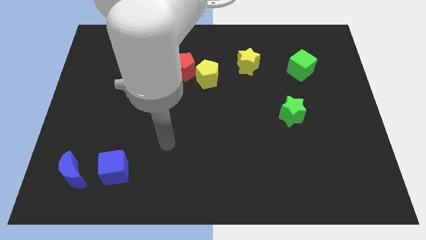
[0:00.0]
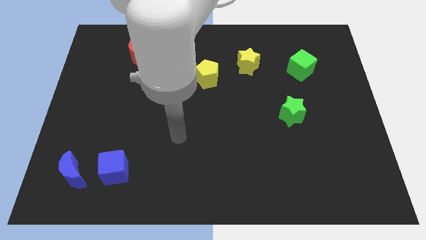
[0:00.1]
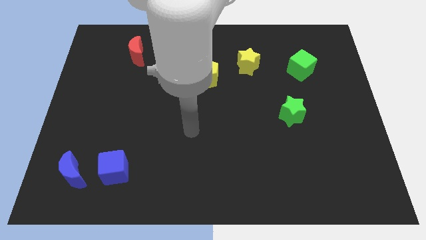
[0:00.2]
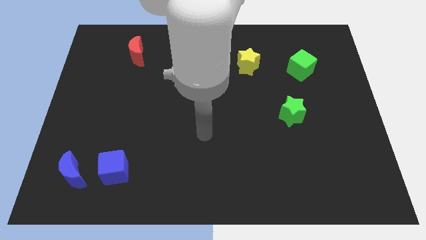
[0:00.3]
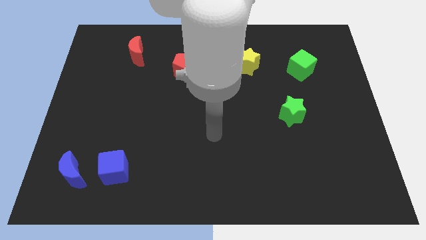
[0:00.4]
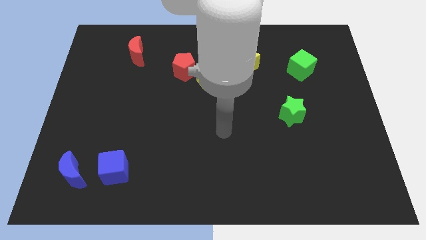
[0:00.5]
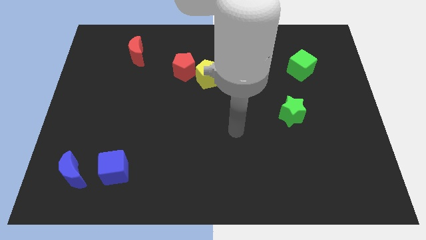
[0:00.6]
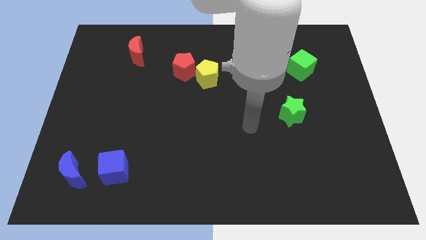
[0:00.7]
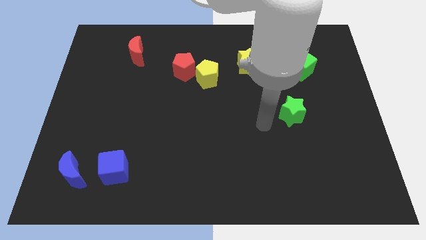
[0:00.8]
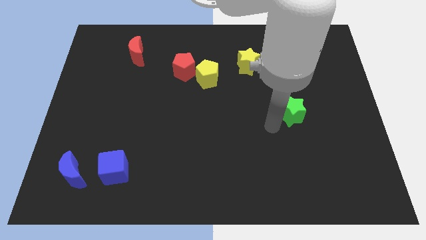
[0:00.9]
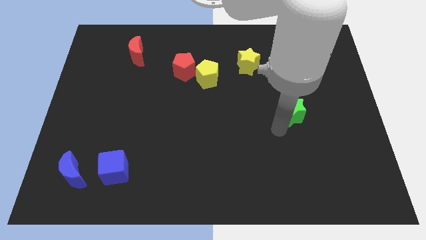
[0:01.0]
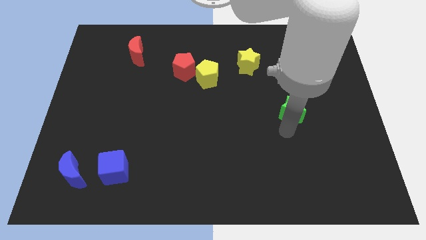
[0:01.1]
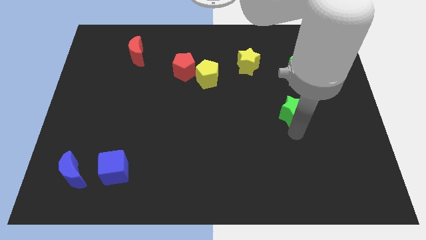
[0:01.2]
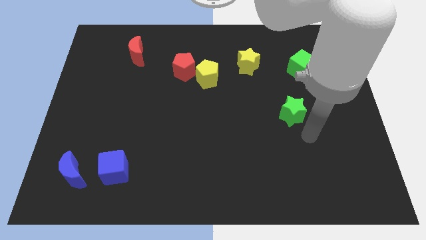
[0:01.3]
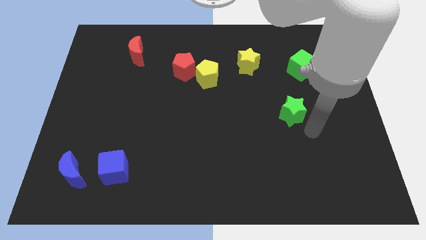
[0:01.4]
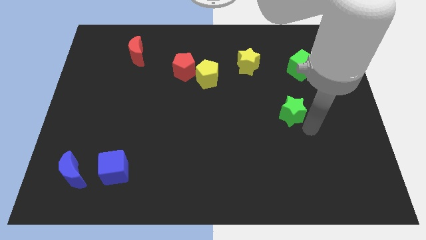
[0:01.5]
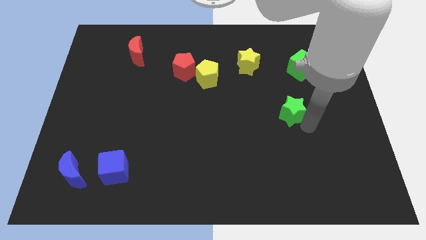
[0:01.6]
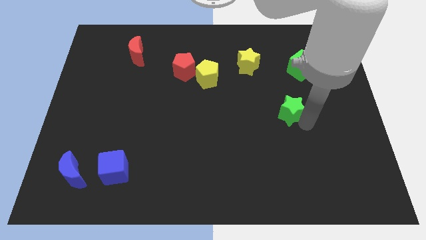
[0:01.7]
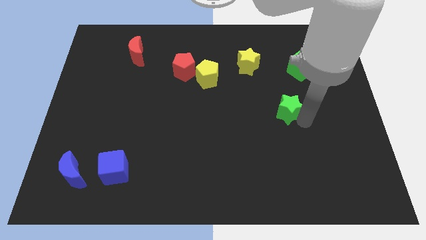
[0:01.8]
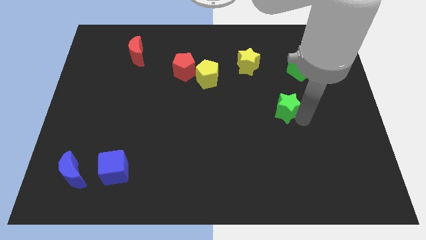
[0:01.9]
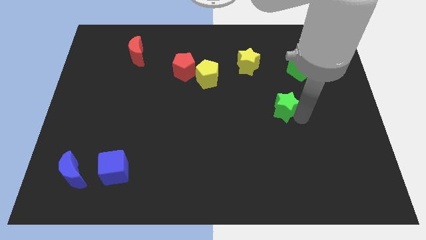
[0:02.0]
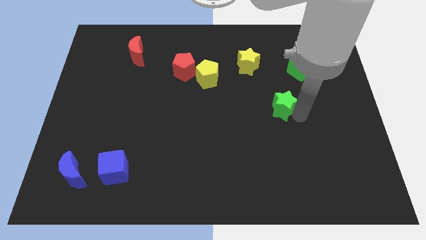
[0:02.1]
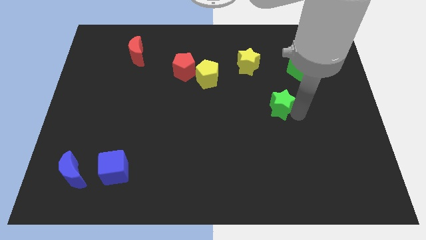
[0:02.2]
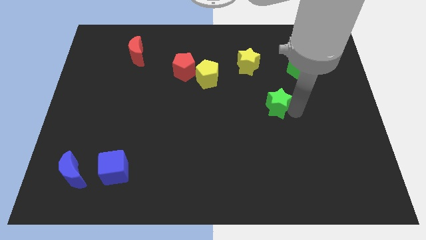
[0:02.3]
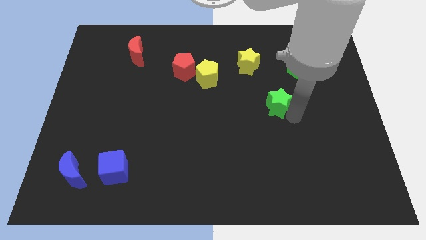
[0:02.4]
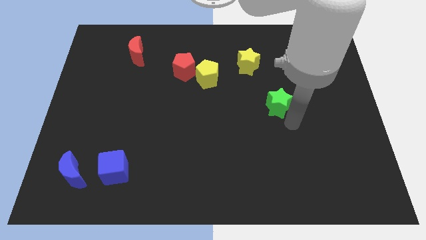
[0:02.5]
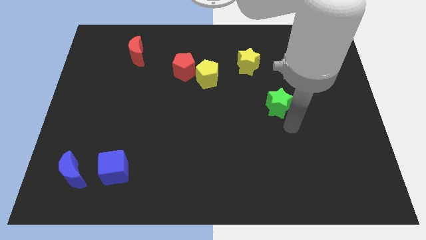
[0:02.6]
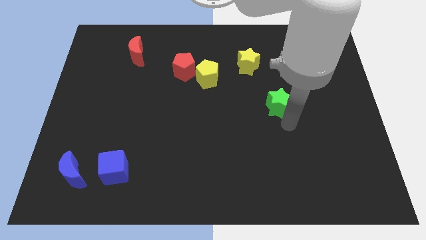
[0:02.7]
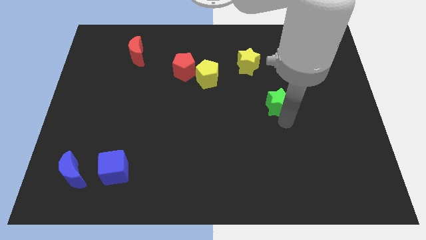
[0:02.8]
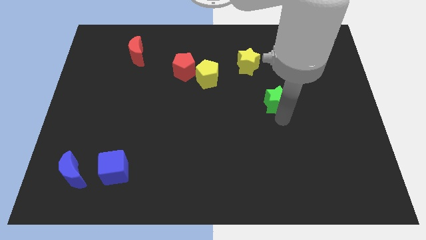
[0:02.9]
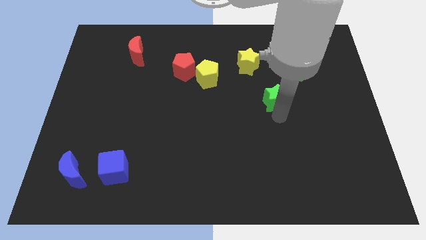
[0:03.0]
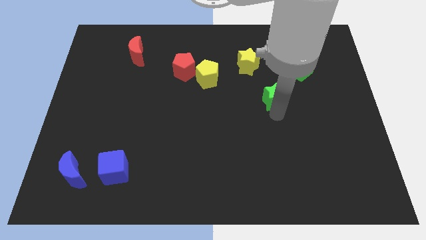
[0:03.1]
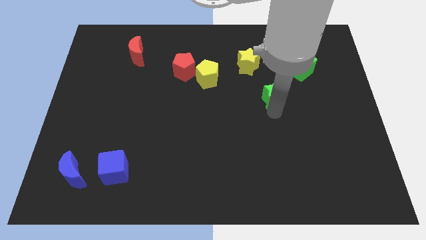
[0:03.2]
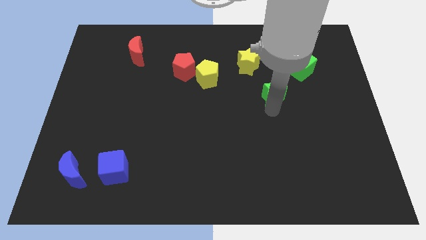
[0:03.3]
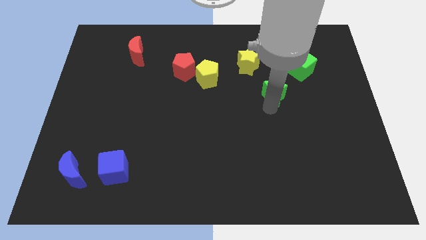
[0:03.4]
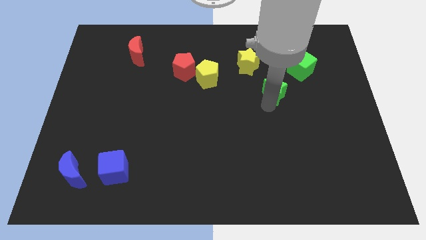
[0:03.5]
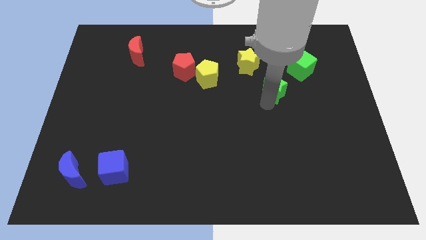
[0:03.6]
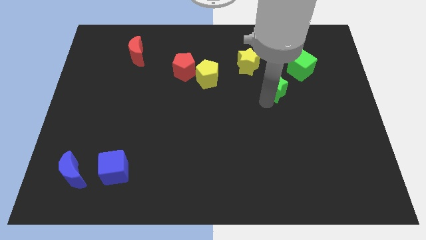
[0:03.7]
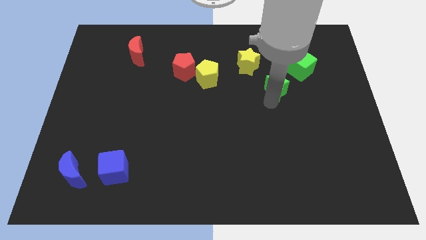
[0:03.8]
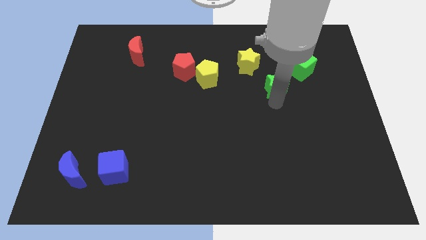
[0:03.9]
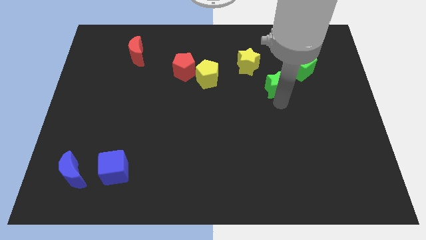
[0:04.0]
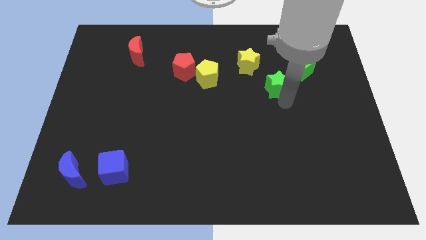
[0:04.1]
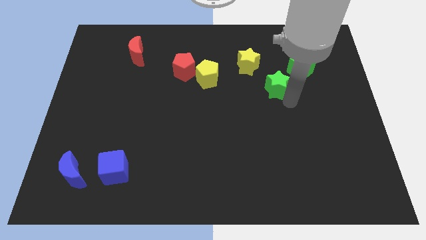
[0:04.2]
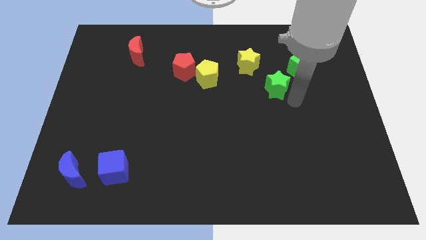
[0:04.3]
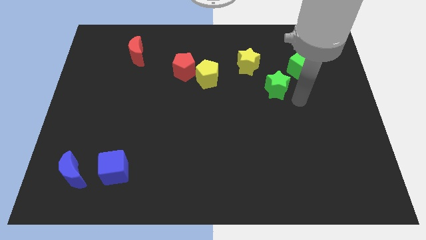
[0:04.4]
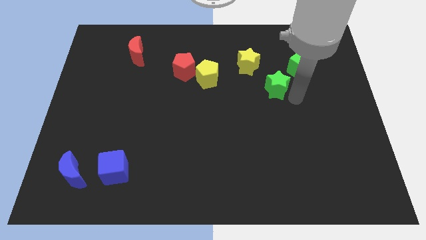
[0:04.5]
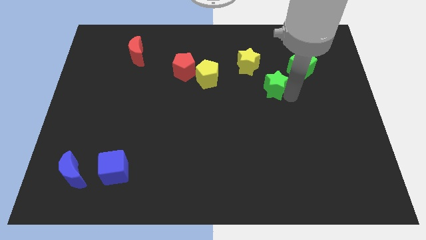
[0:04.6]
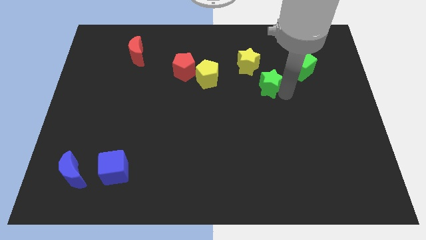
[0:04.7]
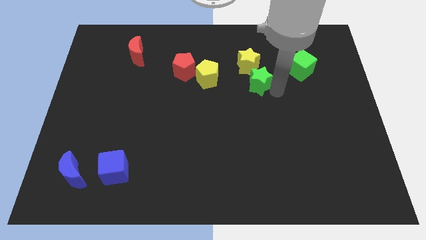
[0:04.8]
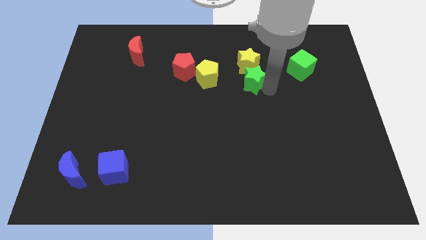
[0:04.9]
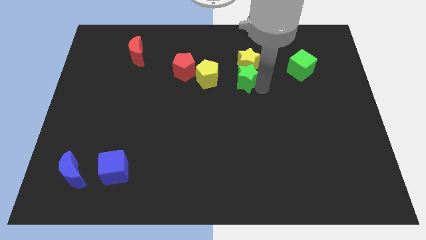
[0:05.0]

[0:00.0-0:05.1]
slide the green star next to the yellow star
